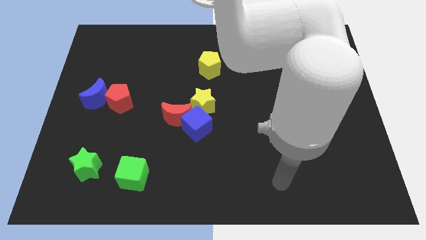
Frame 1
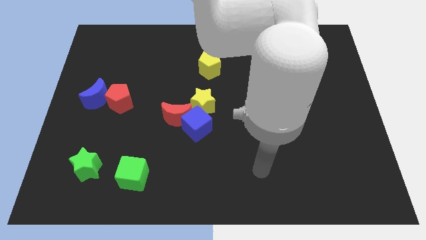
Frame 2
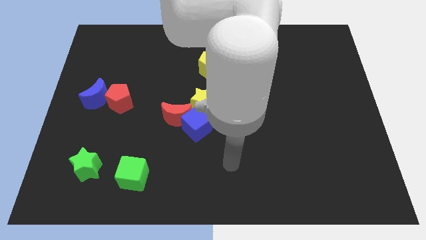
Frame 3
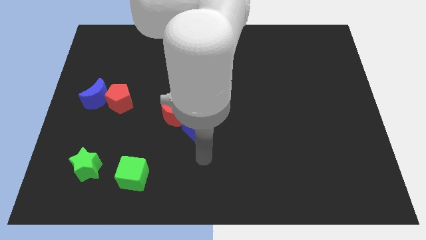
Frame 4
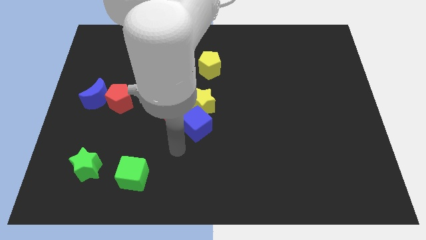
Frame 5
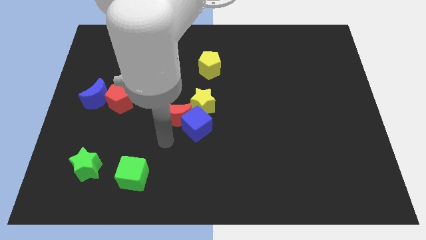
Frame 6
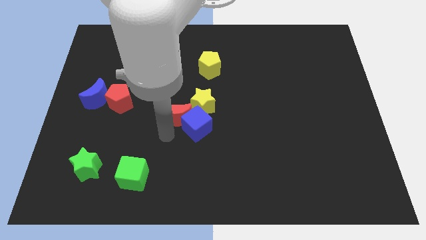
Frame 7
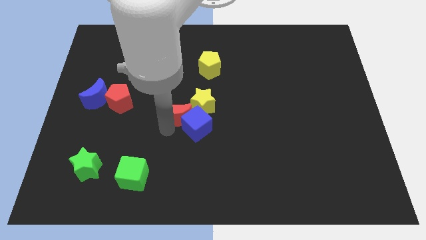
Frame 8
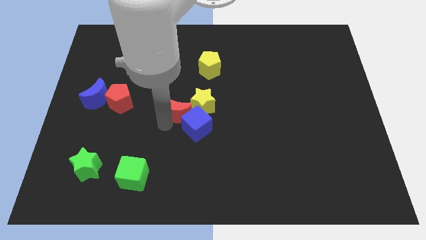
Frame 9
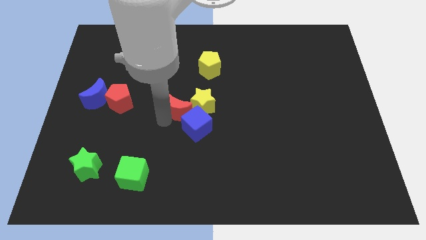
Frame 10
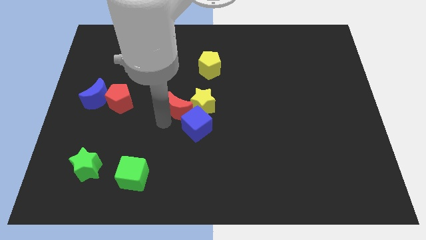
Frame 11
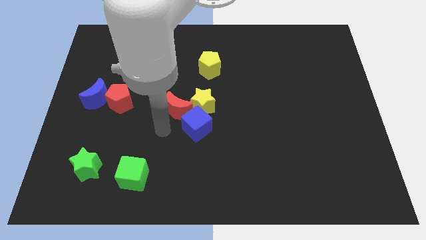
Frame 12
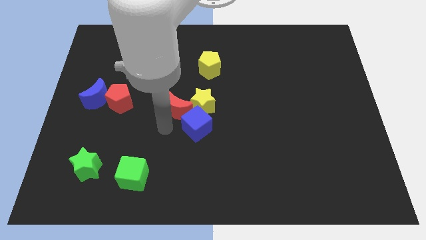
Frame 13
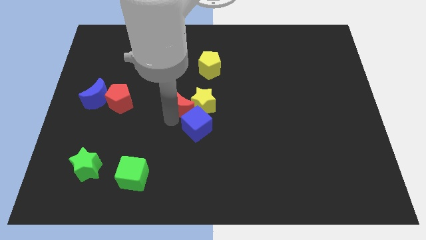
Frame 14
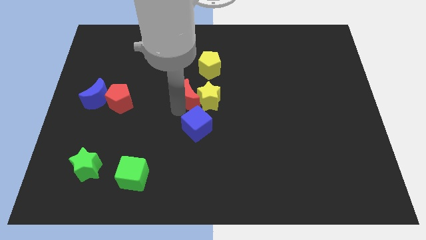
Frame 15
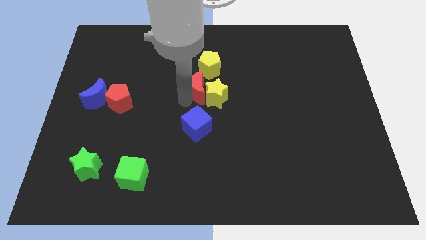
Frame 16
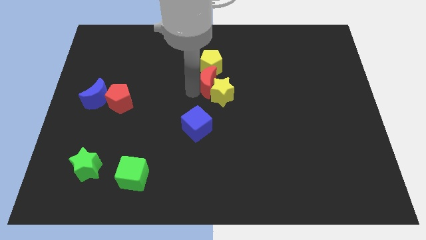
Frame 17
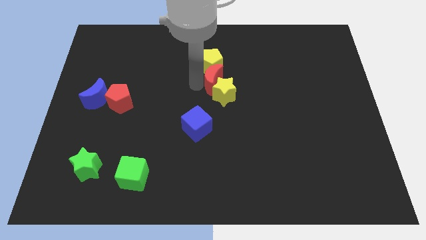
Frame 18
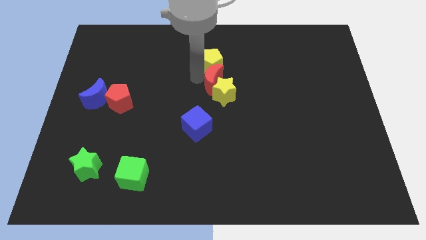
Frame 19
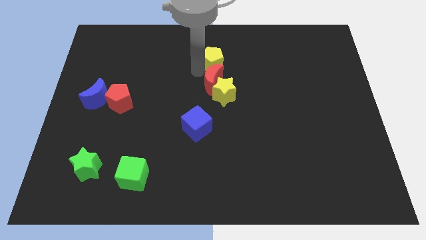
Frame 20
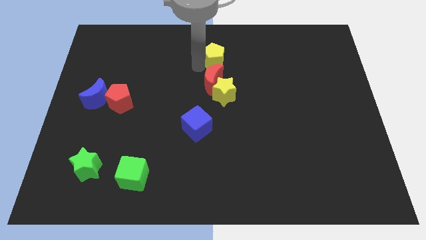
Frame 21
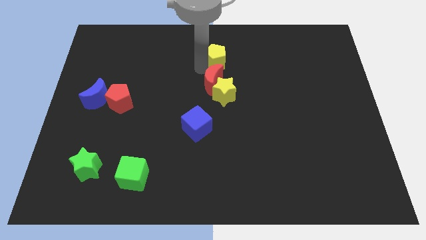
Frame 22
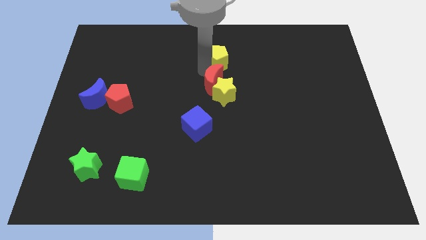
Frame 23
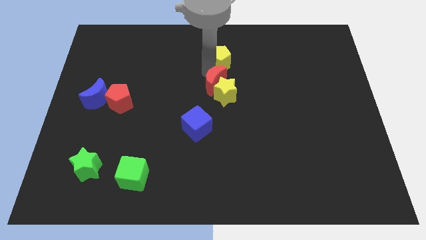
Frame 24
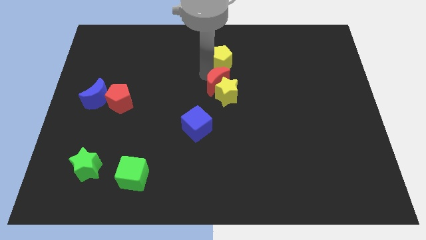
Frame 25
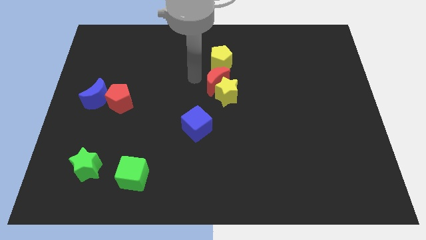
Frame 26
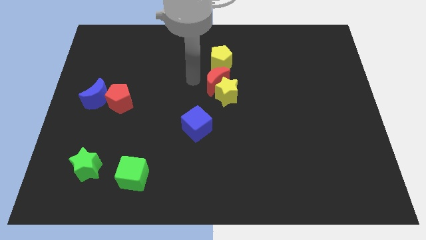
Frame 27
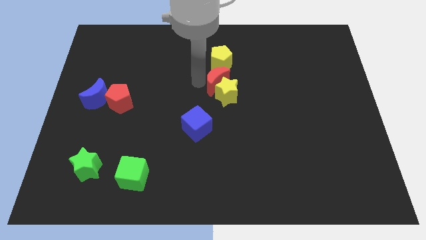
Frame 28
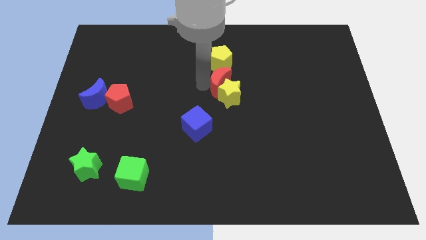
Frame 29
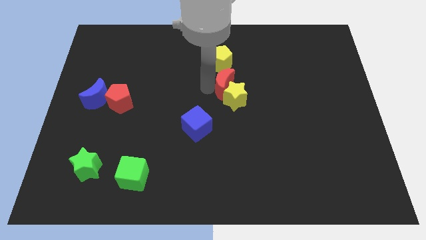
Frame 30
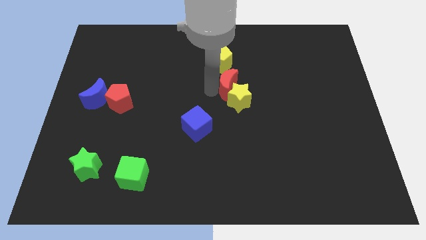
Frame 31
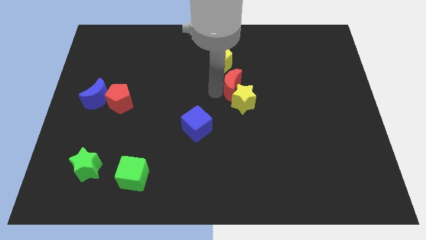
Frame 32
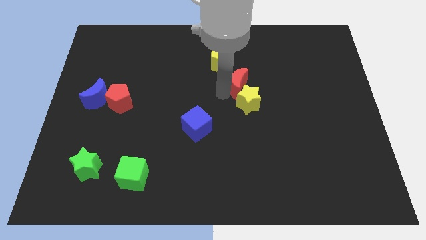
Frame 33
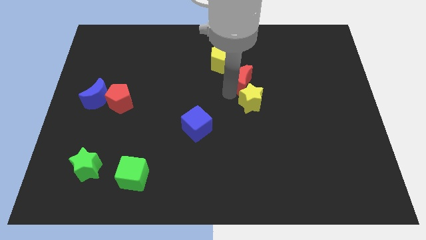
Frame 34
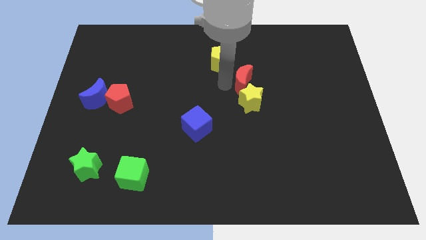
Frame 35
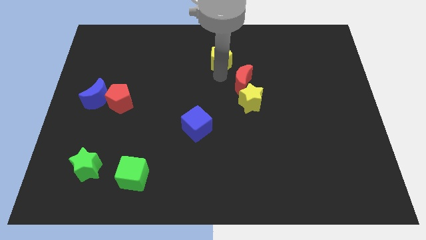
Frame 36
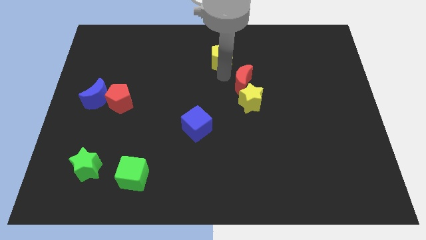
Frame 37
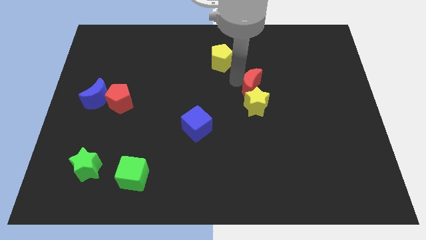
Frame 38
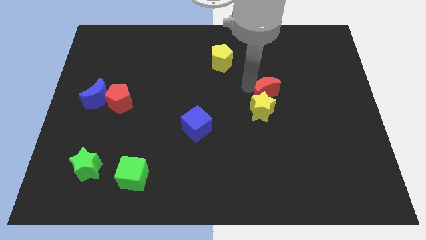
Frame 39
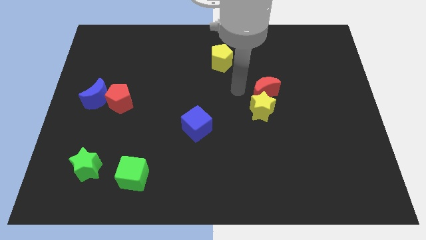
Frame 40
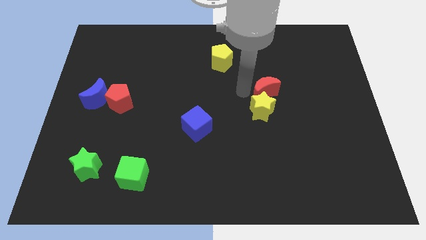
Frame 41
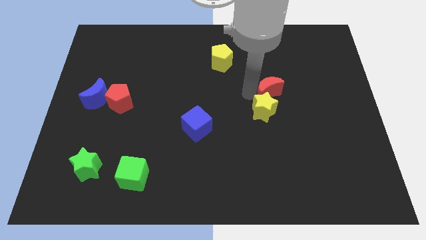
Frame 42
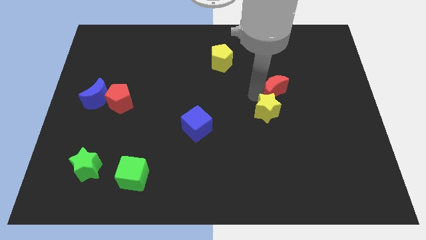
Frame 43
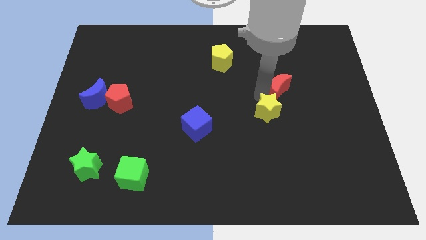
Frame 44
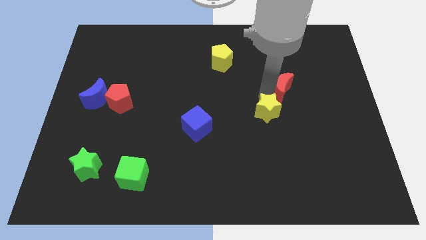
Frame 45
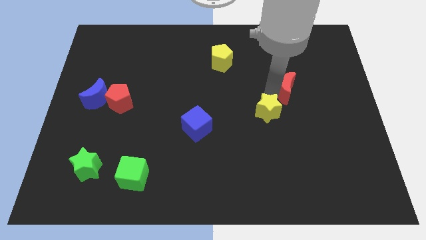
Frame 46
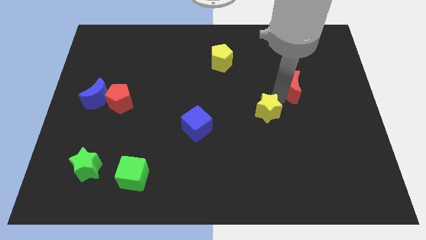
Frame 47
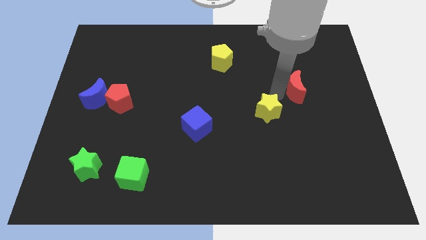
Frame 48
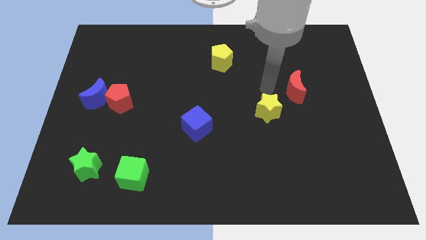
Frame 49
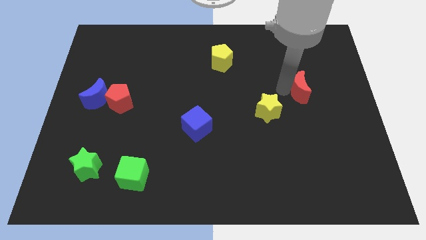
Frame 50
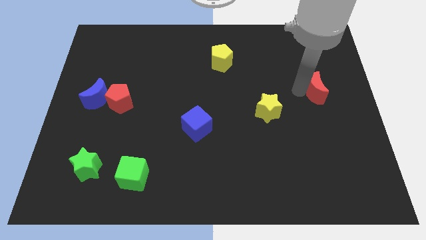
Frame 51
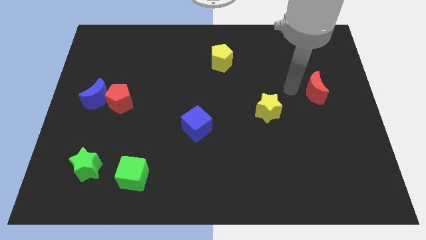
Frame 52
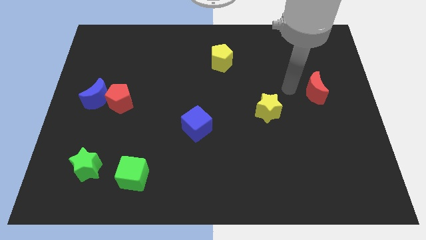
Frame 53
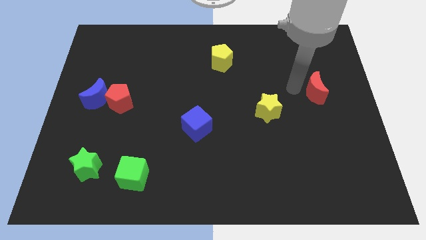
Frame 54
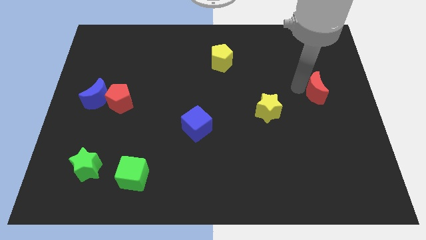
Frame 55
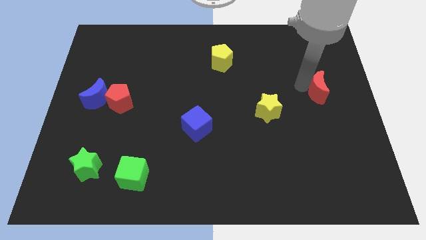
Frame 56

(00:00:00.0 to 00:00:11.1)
move the red moon to the right side
